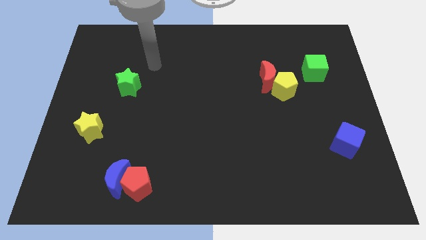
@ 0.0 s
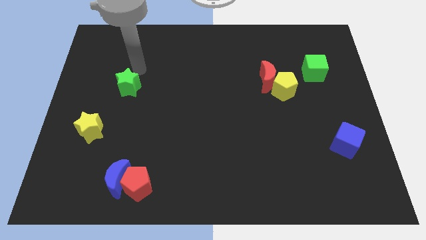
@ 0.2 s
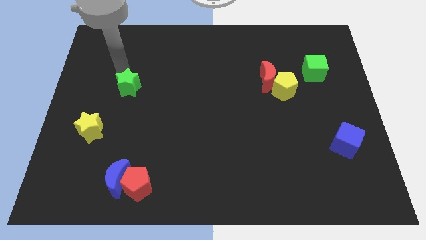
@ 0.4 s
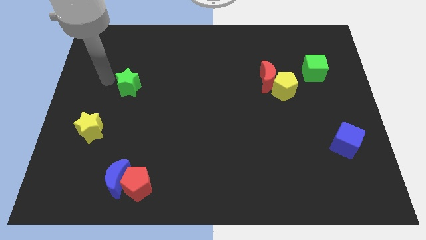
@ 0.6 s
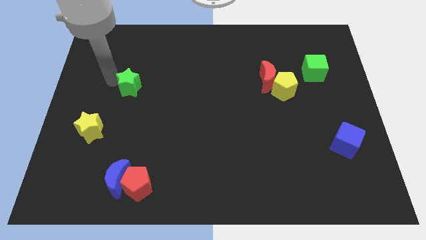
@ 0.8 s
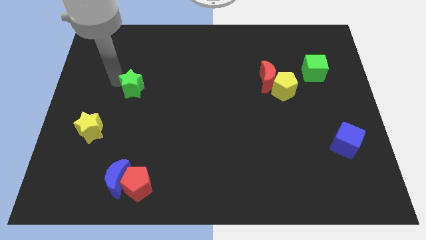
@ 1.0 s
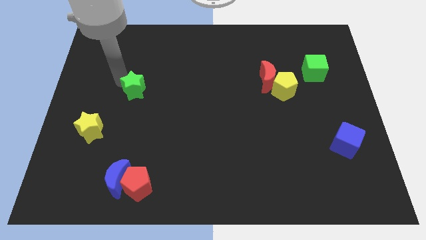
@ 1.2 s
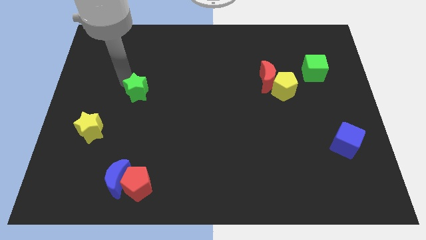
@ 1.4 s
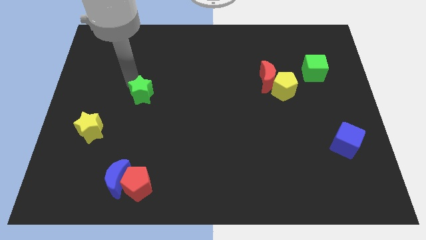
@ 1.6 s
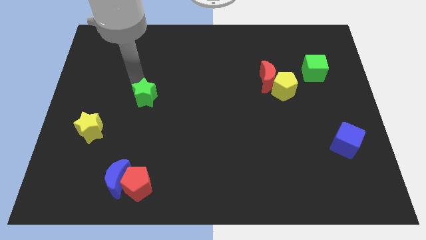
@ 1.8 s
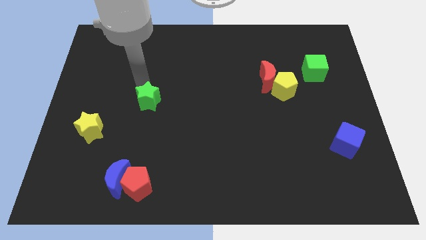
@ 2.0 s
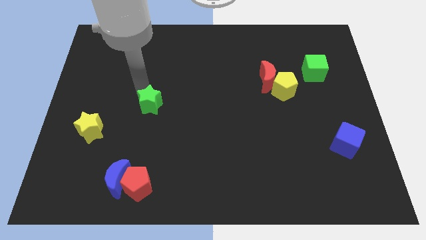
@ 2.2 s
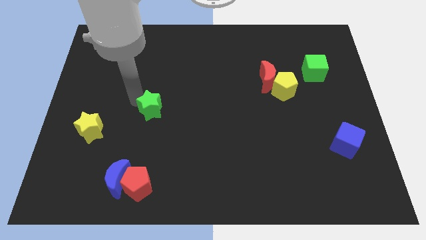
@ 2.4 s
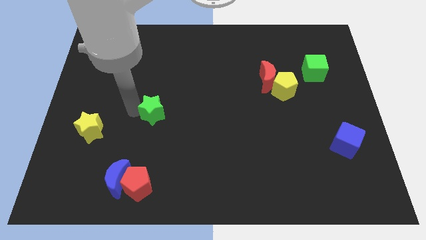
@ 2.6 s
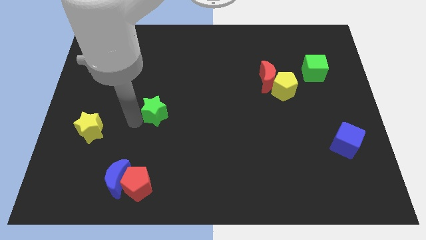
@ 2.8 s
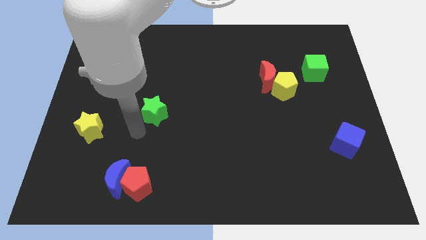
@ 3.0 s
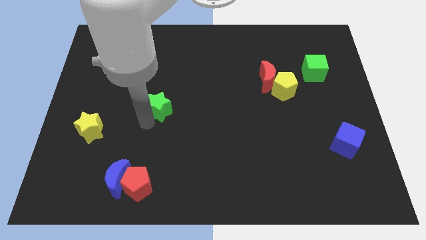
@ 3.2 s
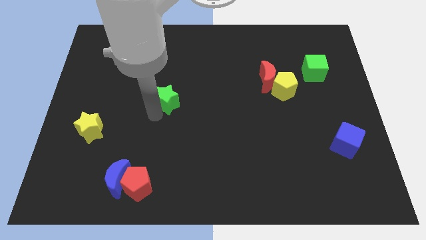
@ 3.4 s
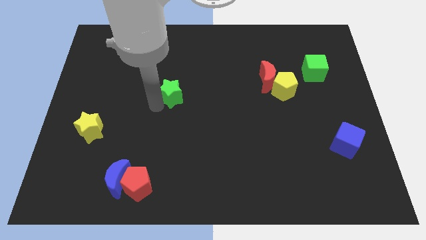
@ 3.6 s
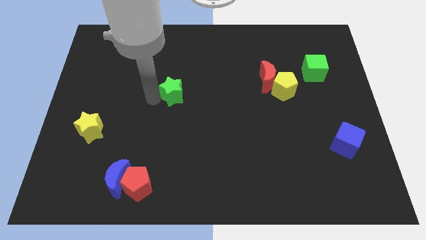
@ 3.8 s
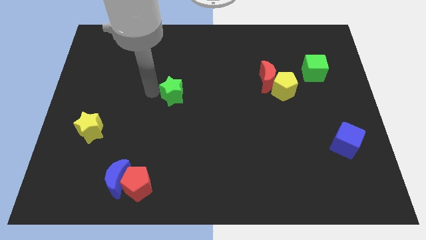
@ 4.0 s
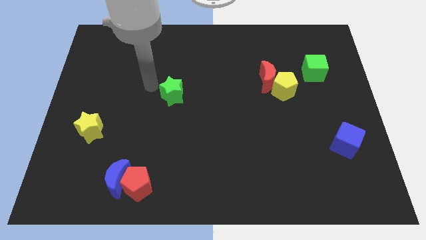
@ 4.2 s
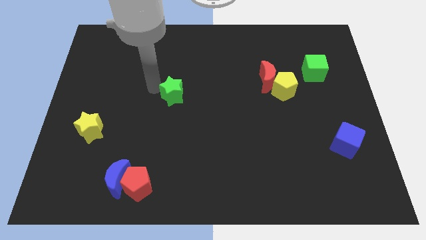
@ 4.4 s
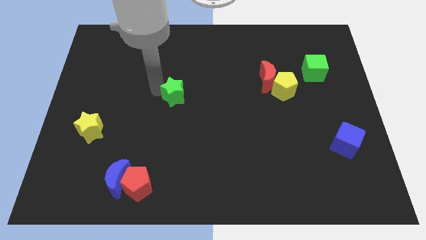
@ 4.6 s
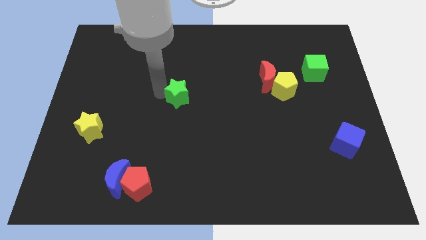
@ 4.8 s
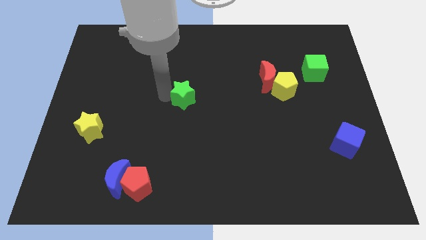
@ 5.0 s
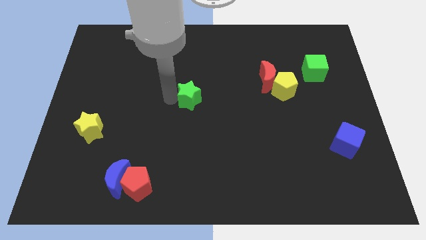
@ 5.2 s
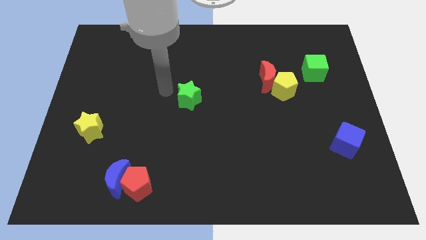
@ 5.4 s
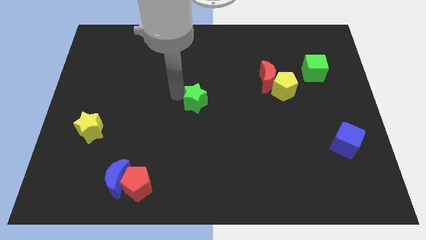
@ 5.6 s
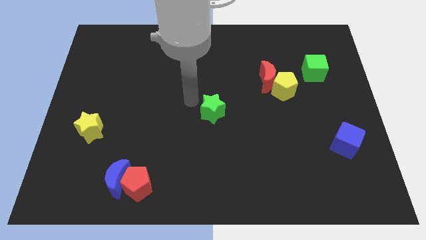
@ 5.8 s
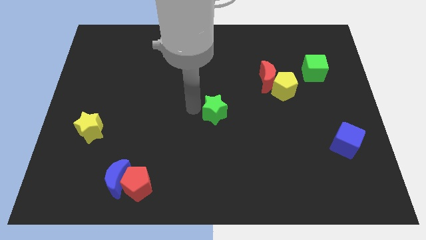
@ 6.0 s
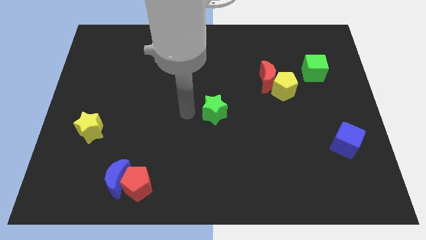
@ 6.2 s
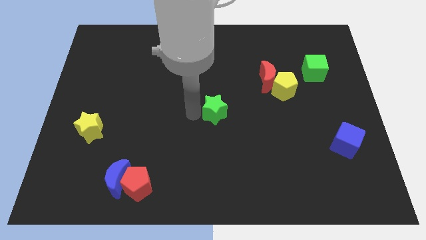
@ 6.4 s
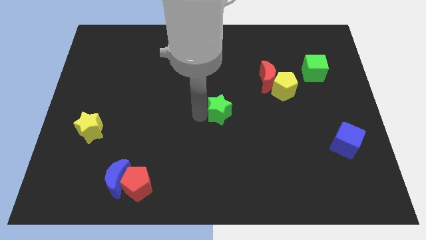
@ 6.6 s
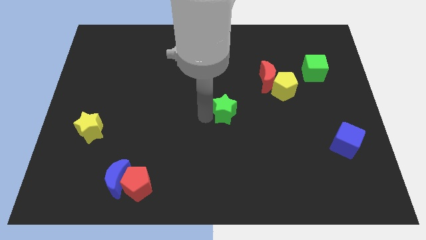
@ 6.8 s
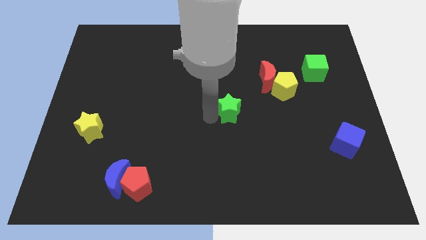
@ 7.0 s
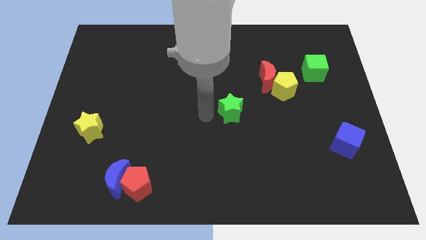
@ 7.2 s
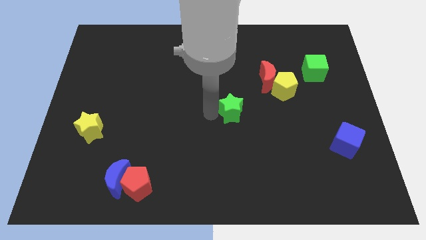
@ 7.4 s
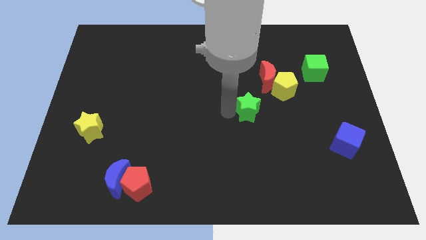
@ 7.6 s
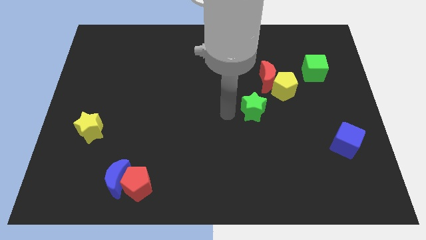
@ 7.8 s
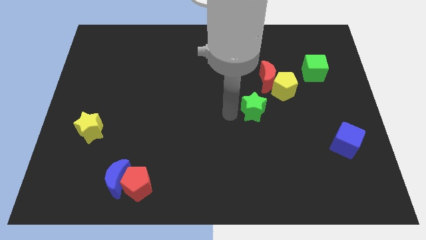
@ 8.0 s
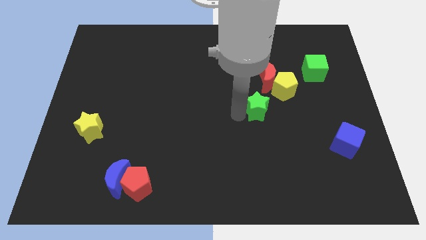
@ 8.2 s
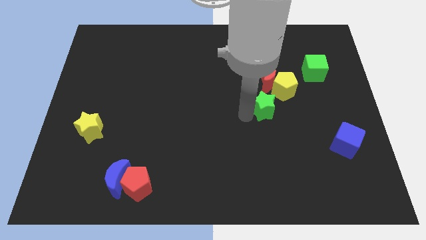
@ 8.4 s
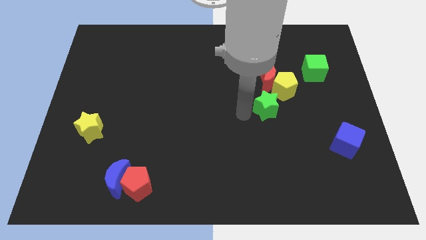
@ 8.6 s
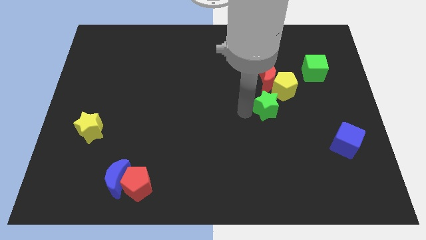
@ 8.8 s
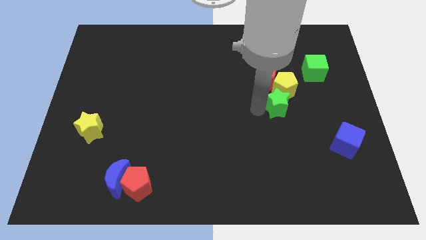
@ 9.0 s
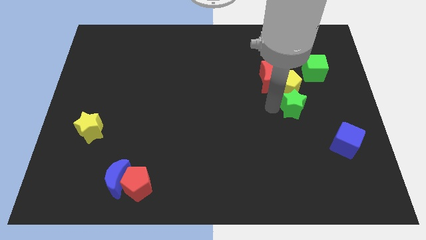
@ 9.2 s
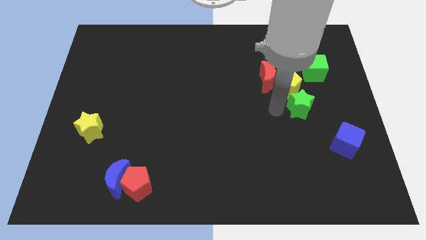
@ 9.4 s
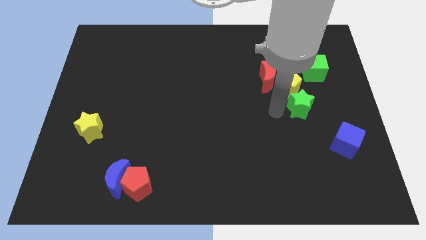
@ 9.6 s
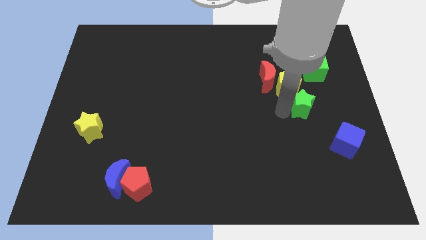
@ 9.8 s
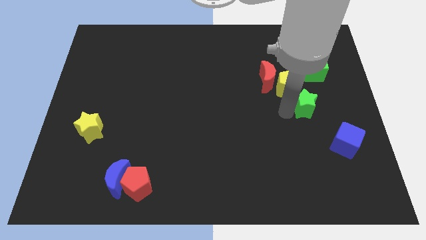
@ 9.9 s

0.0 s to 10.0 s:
move the green star below the green cube
